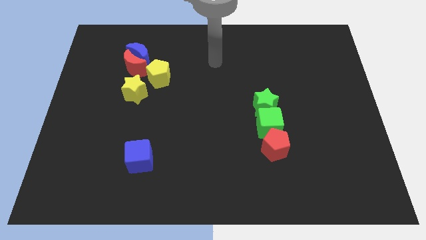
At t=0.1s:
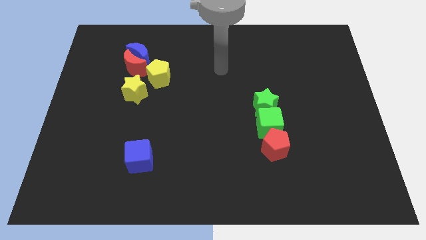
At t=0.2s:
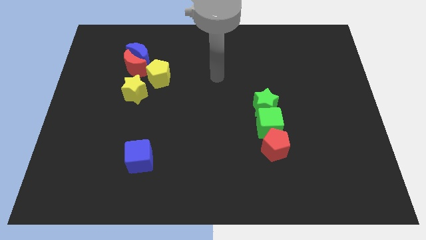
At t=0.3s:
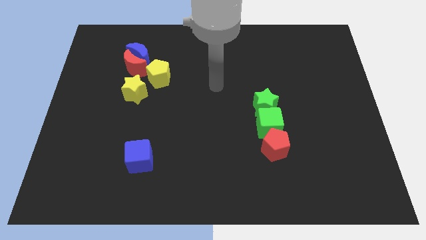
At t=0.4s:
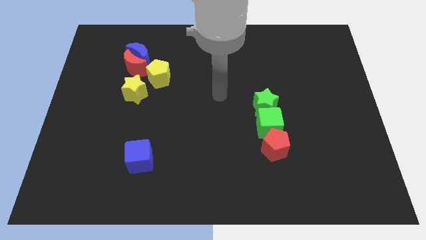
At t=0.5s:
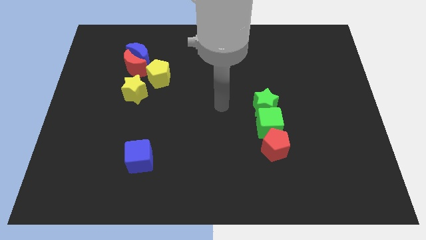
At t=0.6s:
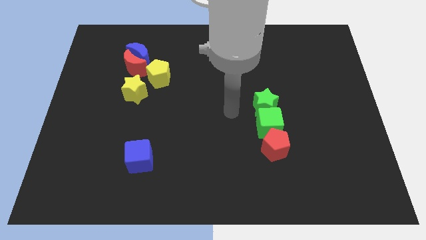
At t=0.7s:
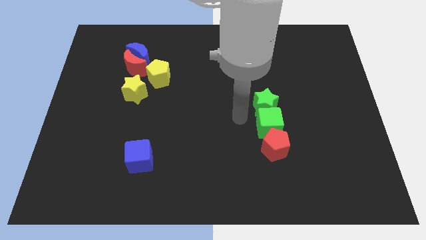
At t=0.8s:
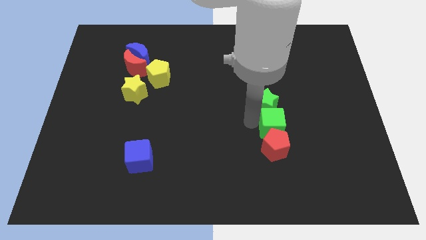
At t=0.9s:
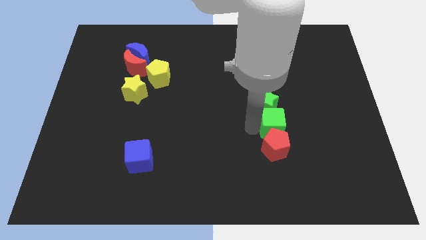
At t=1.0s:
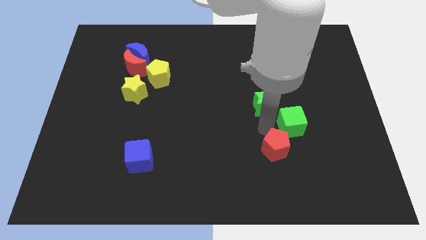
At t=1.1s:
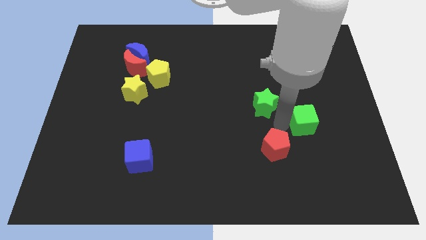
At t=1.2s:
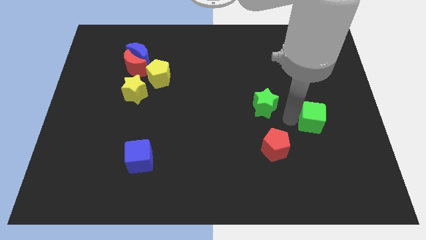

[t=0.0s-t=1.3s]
separate the green star from the green cube

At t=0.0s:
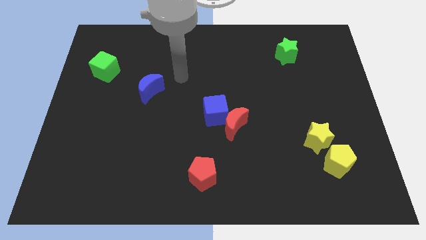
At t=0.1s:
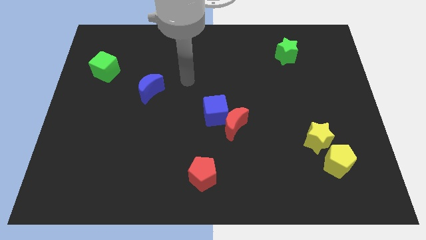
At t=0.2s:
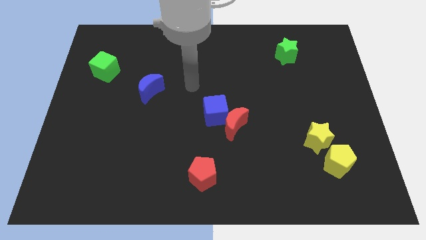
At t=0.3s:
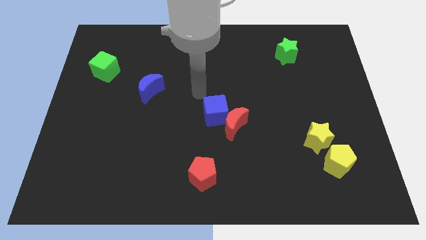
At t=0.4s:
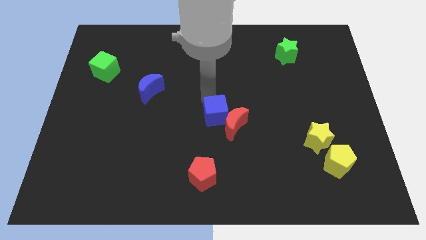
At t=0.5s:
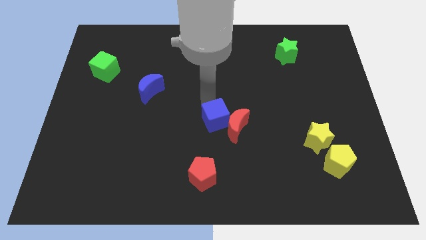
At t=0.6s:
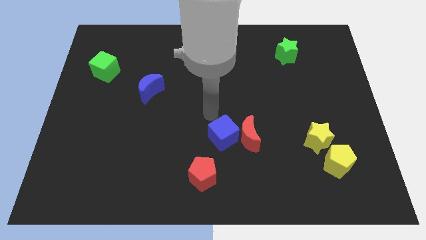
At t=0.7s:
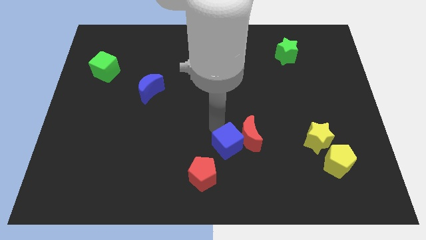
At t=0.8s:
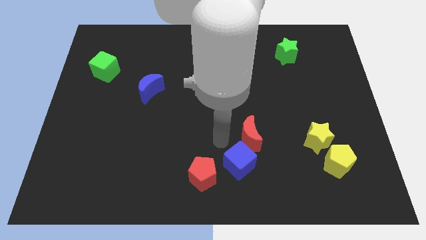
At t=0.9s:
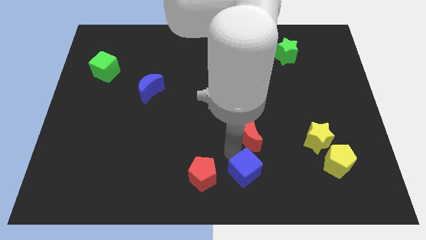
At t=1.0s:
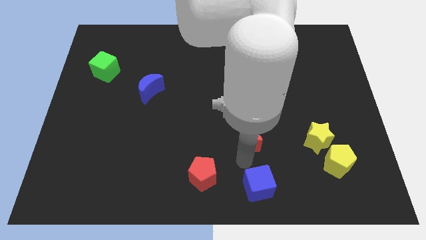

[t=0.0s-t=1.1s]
pull the red moon apart from the blue cube

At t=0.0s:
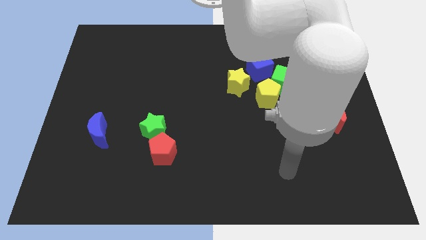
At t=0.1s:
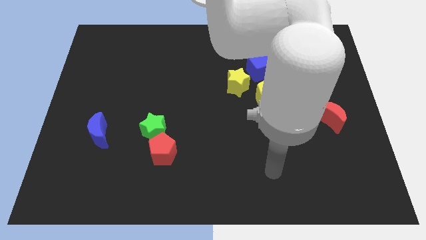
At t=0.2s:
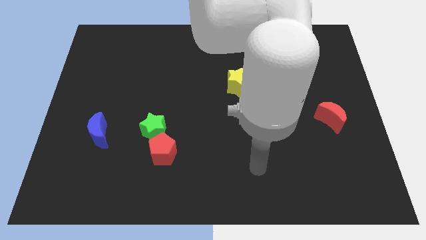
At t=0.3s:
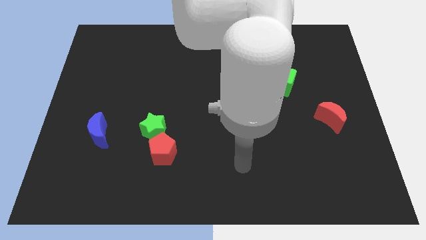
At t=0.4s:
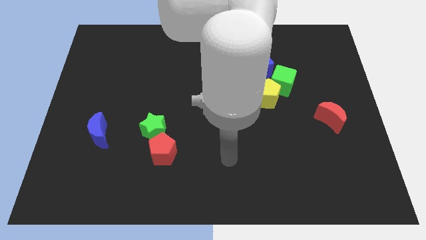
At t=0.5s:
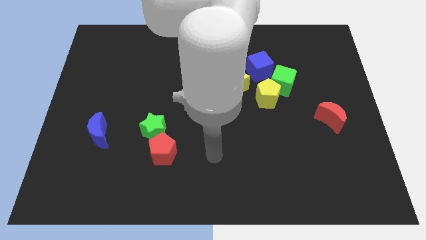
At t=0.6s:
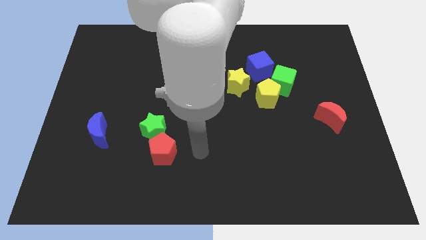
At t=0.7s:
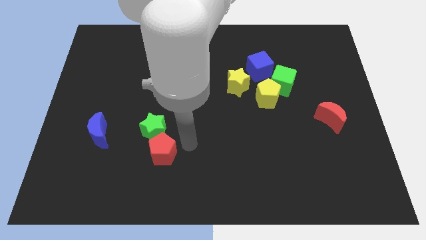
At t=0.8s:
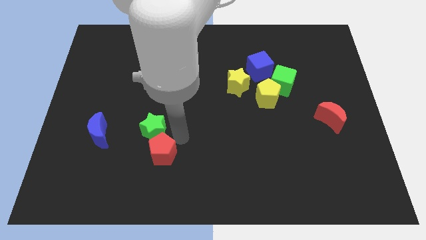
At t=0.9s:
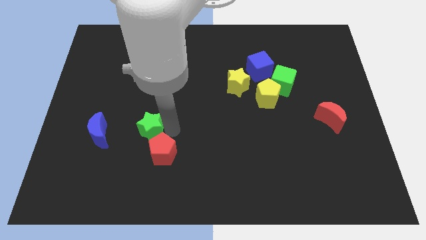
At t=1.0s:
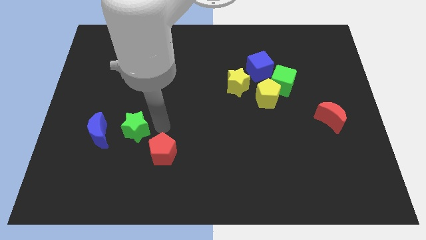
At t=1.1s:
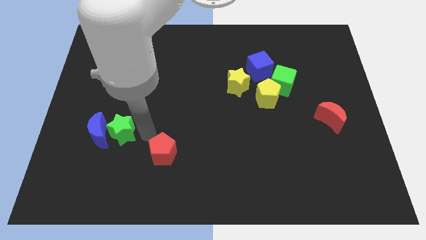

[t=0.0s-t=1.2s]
move the red pentagon away from the green star

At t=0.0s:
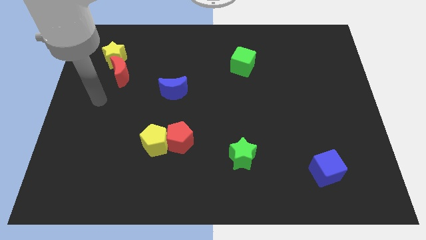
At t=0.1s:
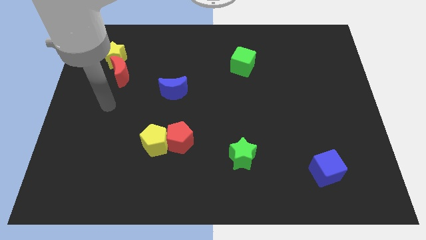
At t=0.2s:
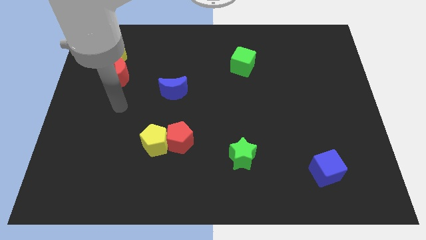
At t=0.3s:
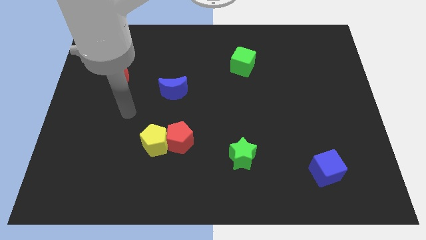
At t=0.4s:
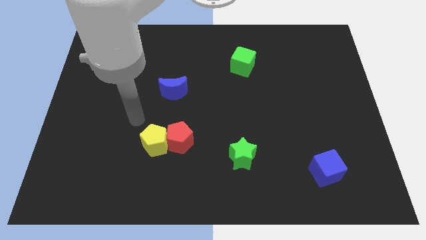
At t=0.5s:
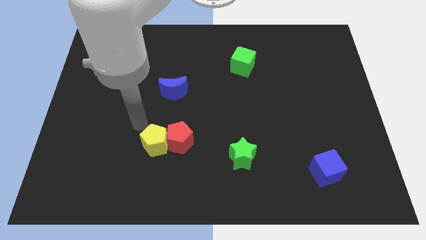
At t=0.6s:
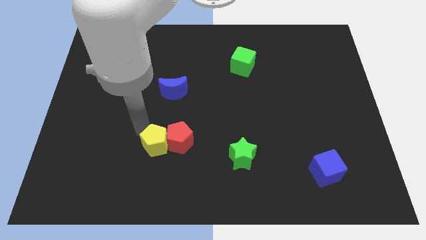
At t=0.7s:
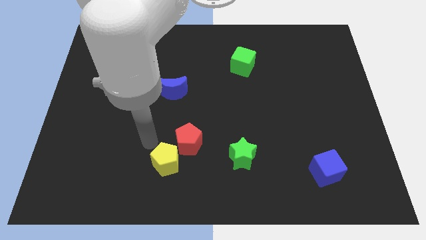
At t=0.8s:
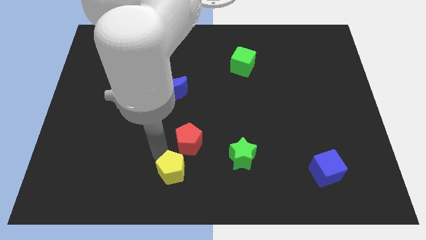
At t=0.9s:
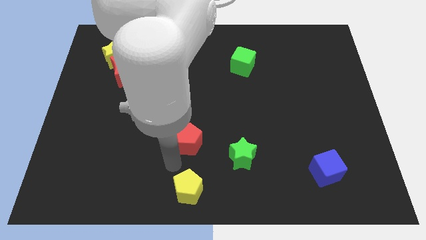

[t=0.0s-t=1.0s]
move the red pentagon away from the yellow pentagon

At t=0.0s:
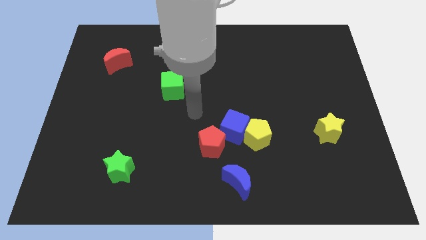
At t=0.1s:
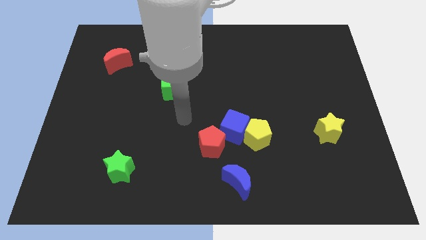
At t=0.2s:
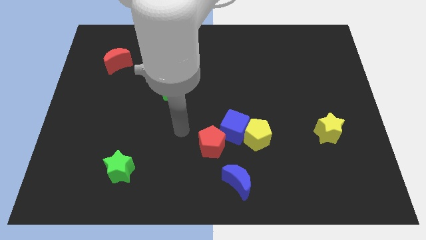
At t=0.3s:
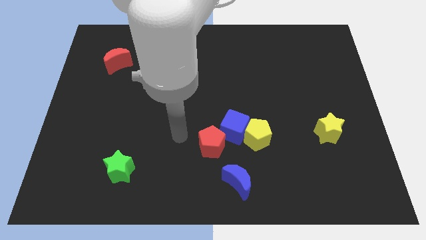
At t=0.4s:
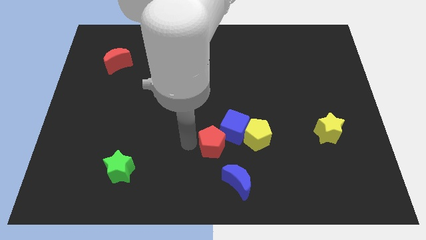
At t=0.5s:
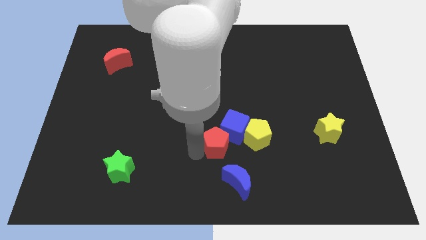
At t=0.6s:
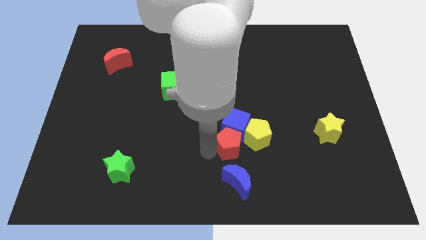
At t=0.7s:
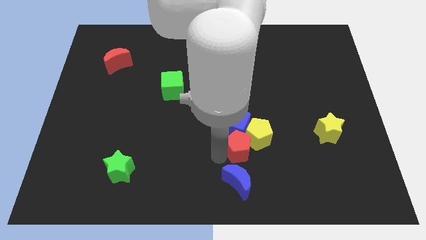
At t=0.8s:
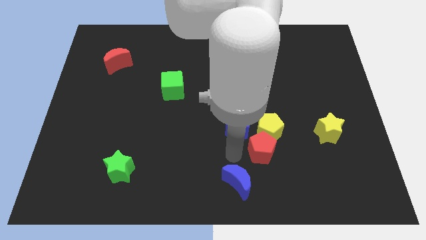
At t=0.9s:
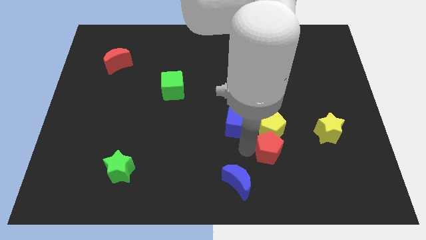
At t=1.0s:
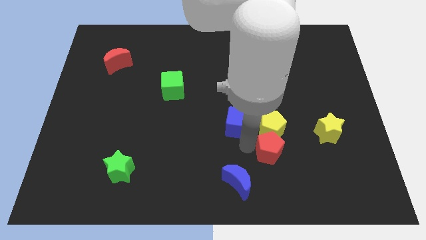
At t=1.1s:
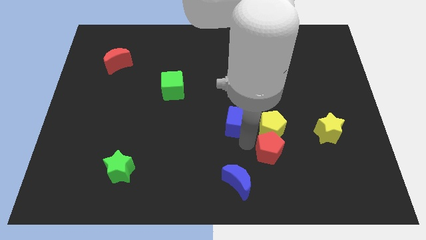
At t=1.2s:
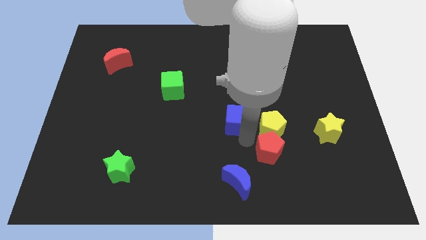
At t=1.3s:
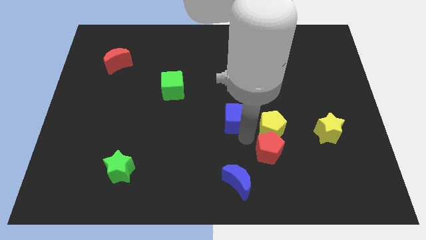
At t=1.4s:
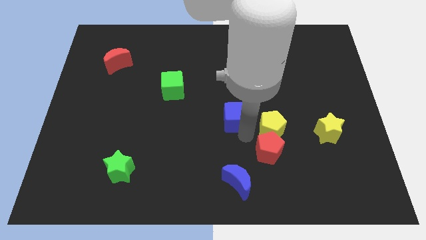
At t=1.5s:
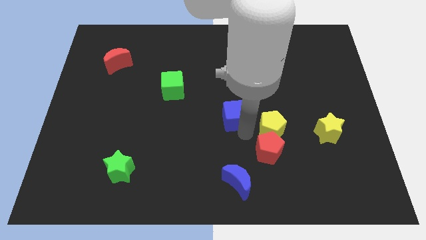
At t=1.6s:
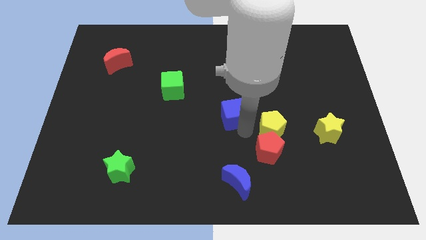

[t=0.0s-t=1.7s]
move the blue cube away from the yellow pentagon and red pentagon

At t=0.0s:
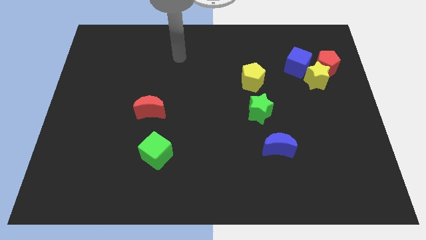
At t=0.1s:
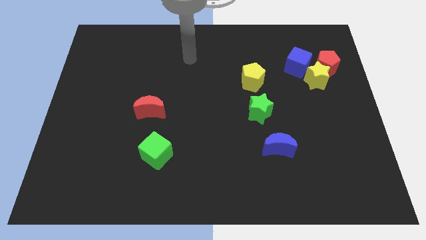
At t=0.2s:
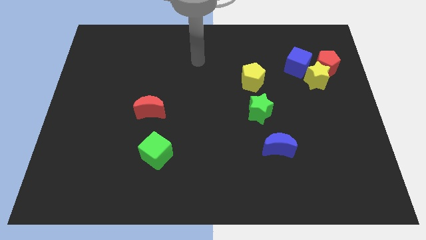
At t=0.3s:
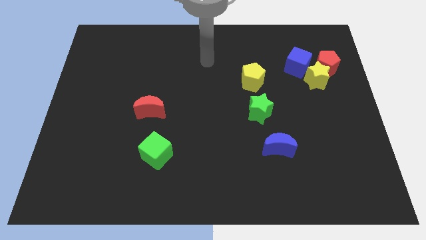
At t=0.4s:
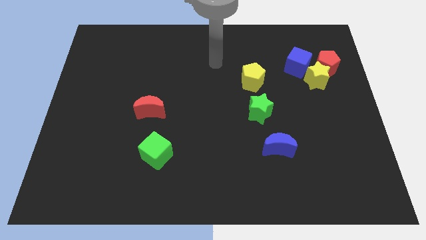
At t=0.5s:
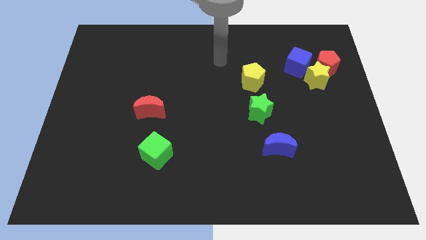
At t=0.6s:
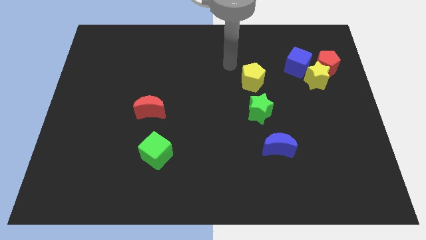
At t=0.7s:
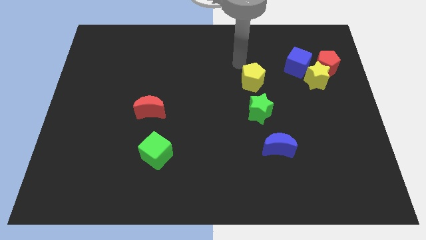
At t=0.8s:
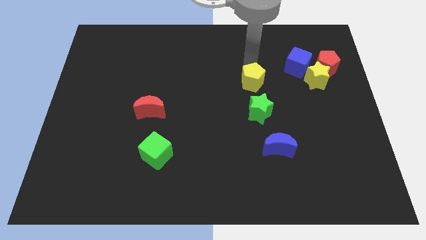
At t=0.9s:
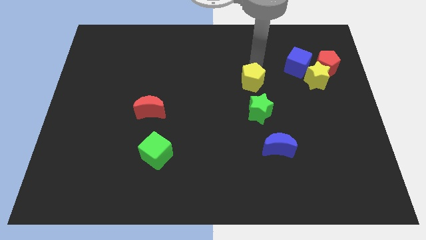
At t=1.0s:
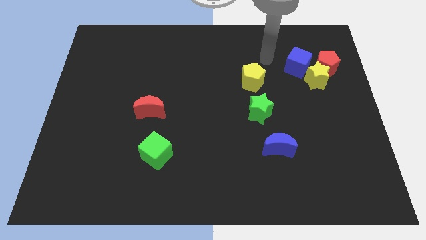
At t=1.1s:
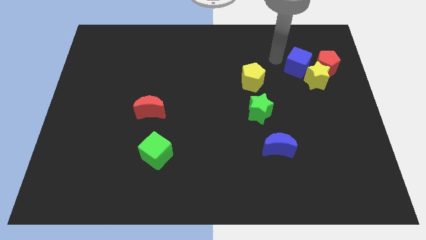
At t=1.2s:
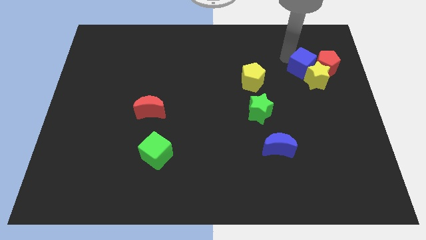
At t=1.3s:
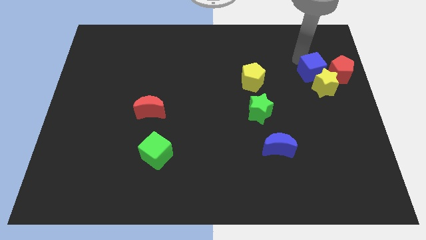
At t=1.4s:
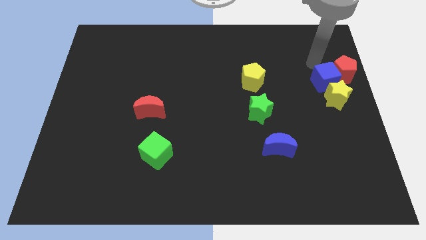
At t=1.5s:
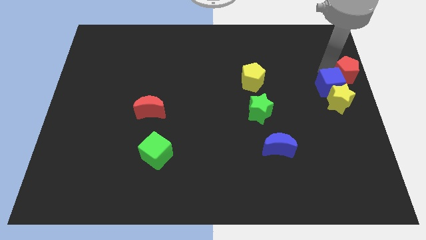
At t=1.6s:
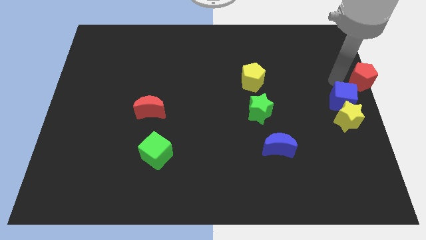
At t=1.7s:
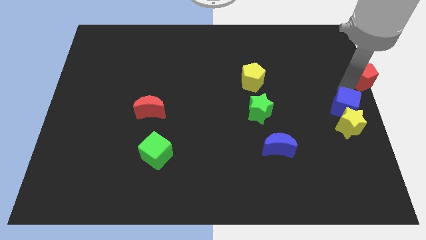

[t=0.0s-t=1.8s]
separate the yellow star from the red pentagon and blue cube

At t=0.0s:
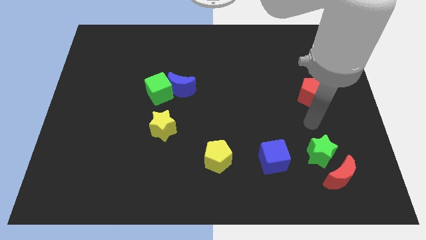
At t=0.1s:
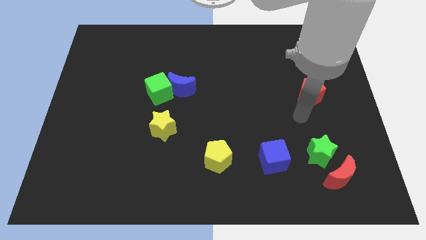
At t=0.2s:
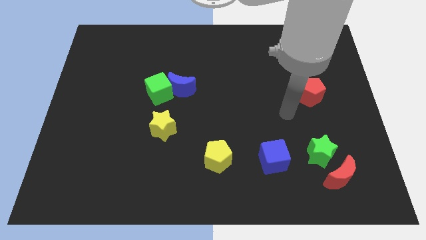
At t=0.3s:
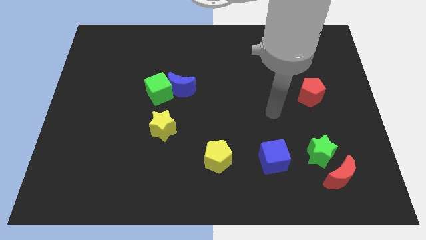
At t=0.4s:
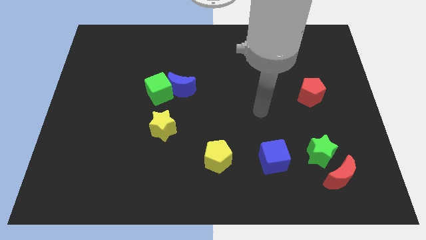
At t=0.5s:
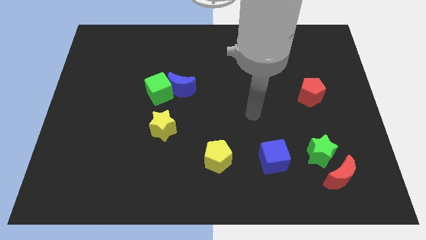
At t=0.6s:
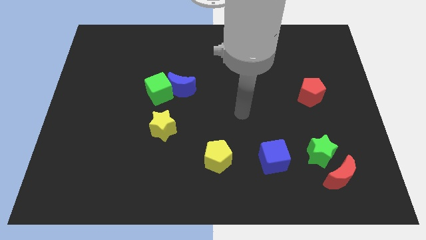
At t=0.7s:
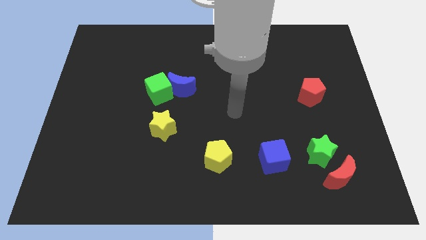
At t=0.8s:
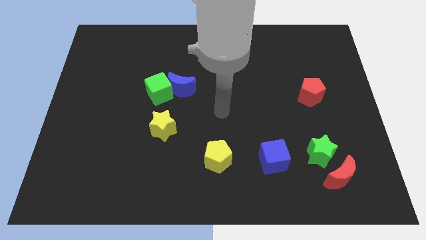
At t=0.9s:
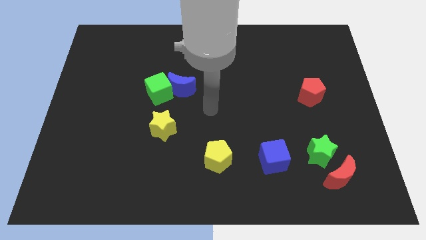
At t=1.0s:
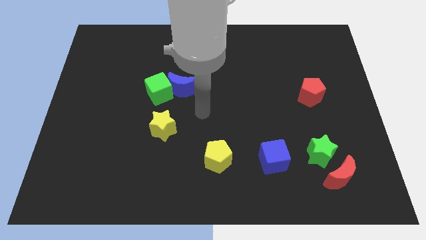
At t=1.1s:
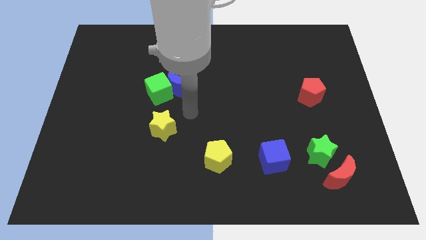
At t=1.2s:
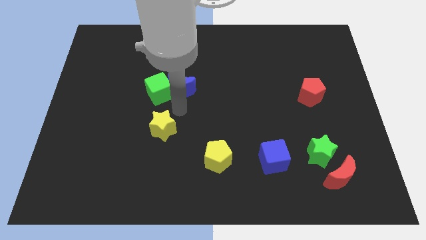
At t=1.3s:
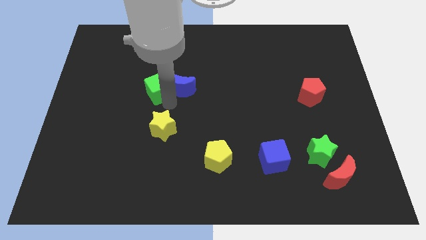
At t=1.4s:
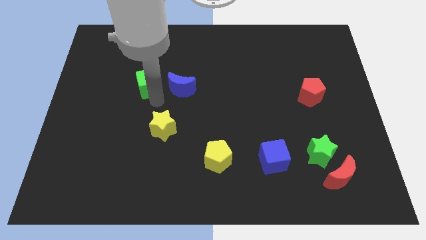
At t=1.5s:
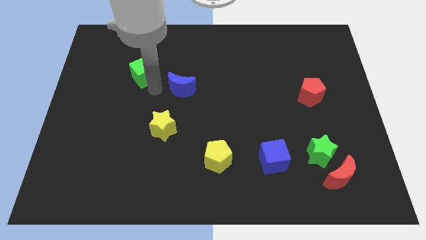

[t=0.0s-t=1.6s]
pull the blue moon apart from the green cube
